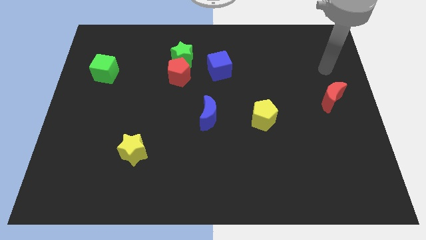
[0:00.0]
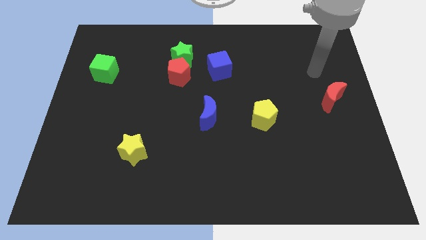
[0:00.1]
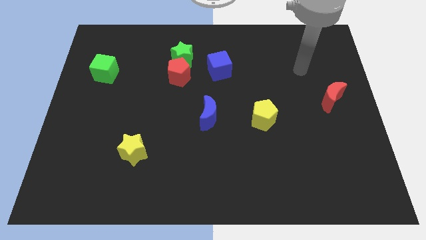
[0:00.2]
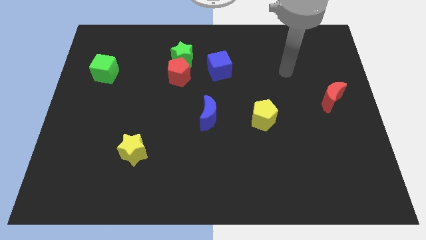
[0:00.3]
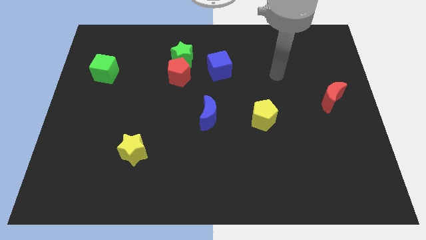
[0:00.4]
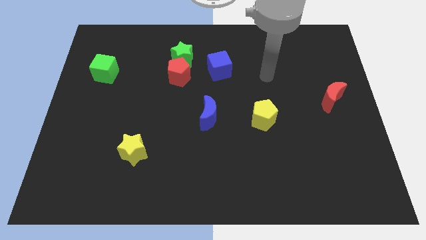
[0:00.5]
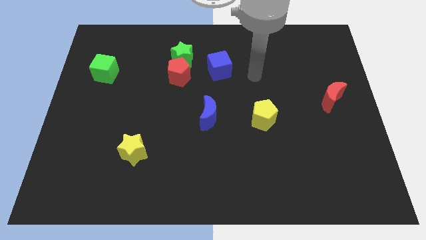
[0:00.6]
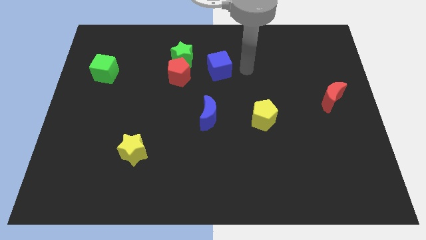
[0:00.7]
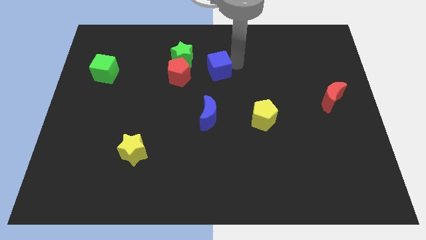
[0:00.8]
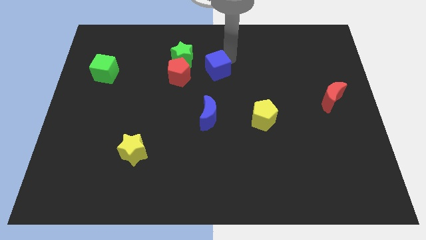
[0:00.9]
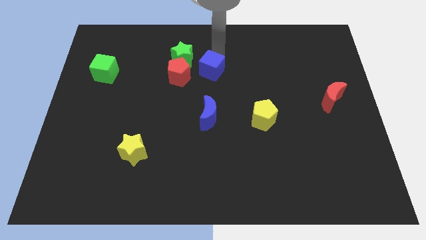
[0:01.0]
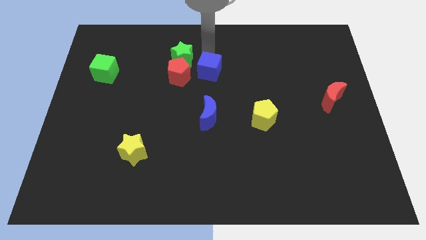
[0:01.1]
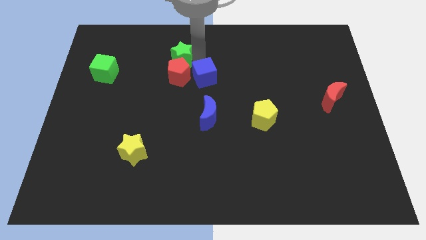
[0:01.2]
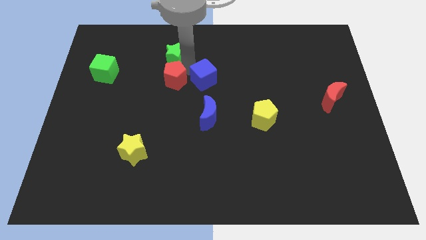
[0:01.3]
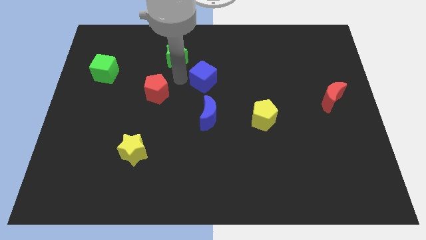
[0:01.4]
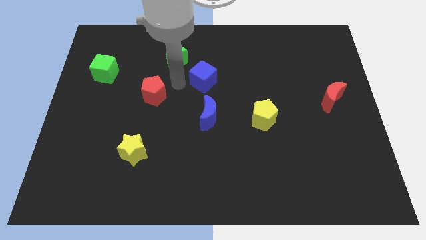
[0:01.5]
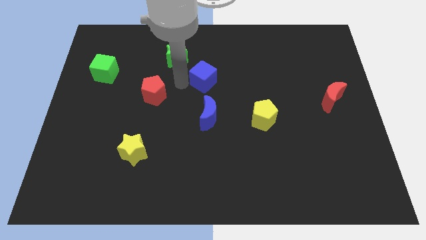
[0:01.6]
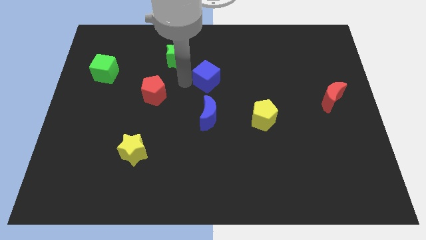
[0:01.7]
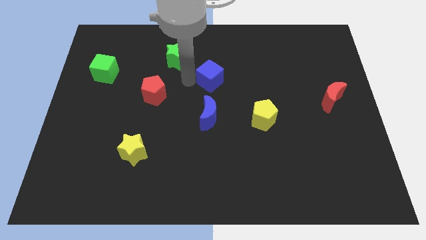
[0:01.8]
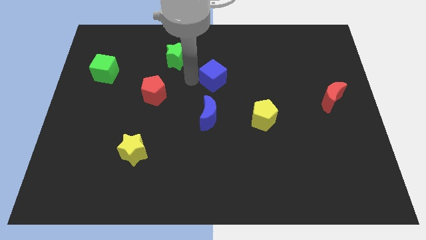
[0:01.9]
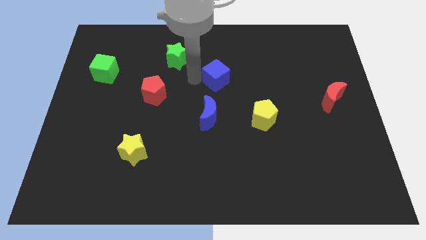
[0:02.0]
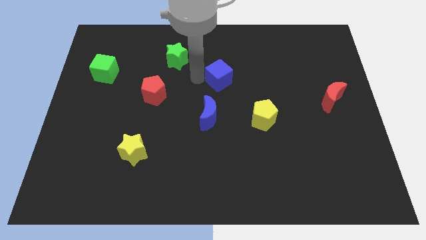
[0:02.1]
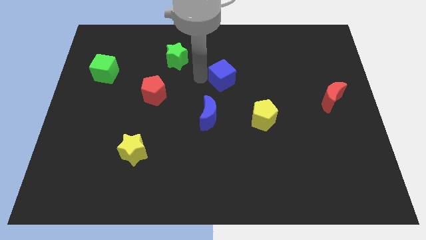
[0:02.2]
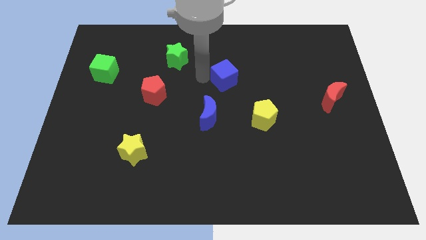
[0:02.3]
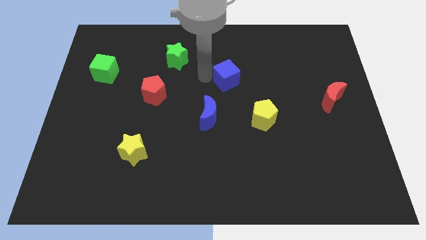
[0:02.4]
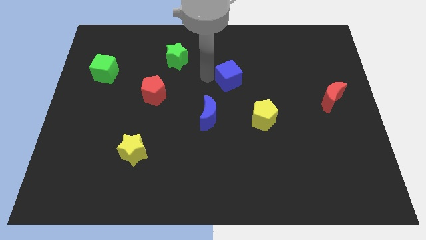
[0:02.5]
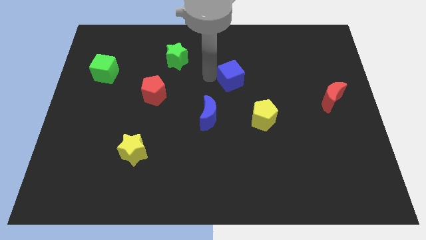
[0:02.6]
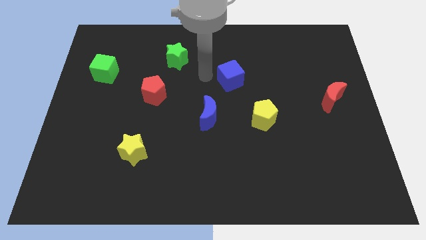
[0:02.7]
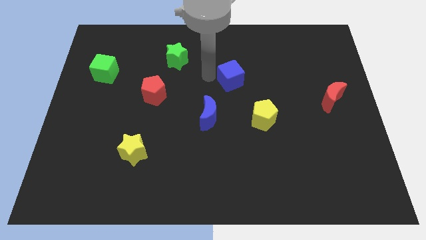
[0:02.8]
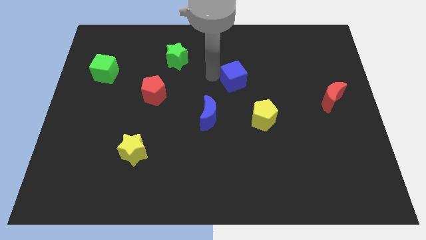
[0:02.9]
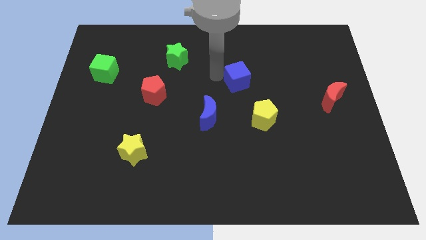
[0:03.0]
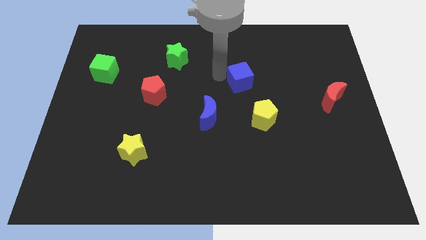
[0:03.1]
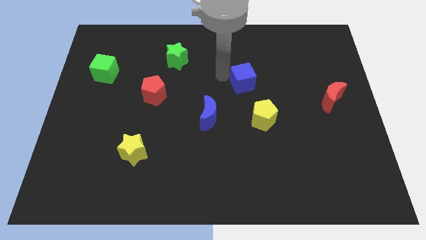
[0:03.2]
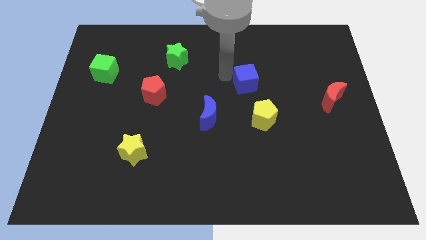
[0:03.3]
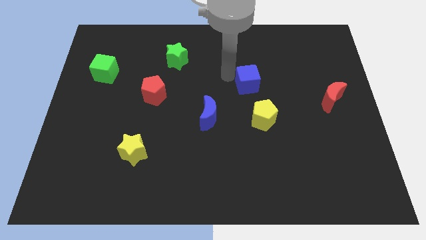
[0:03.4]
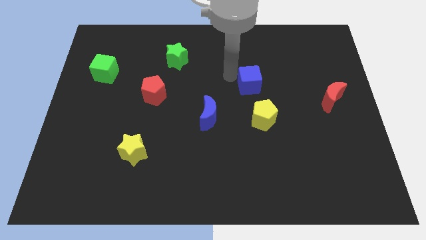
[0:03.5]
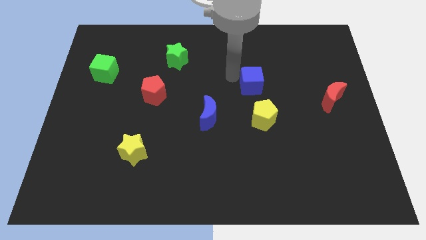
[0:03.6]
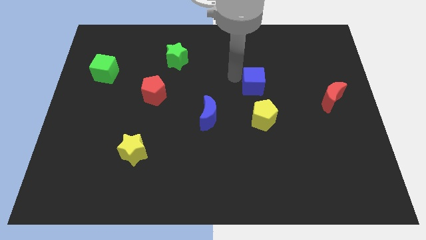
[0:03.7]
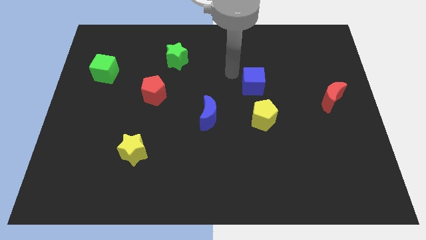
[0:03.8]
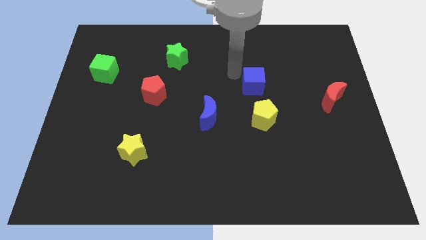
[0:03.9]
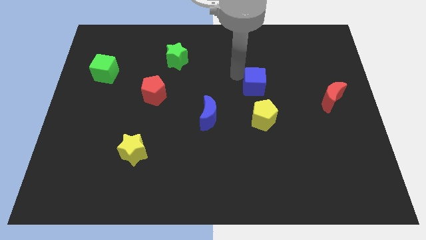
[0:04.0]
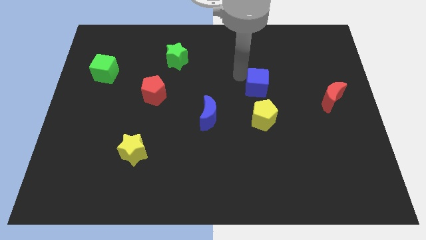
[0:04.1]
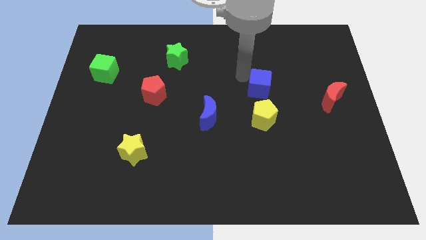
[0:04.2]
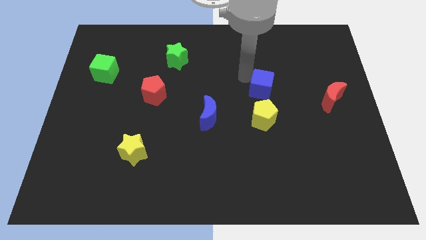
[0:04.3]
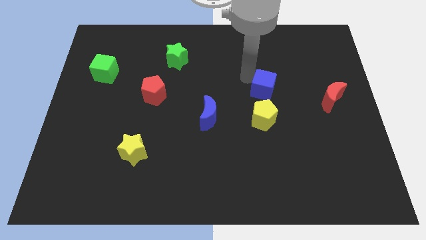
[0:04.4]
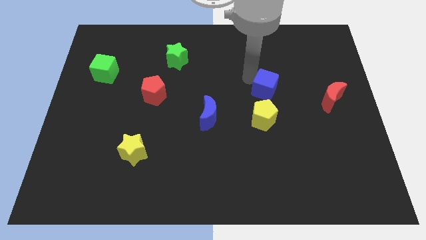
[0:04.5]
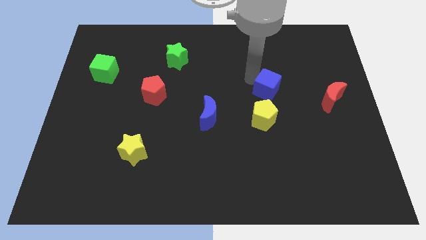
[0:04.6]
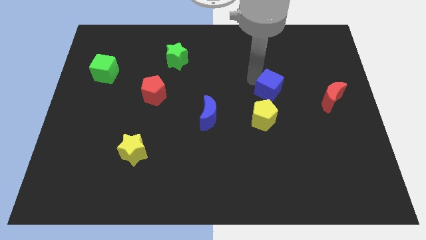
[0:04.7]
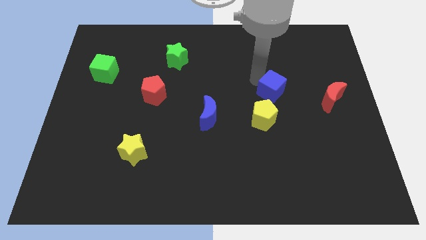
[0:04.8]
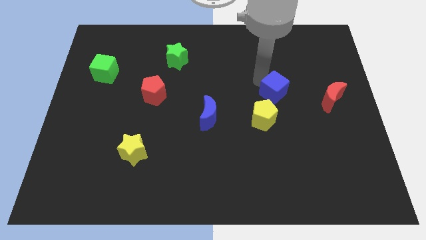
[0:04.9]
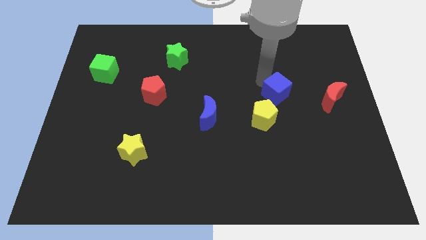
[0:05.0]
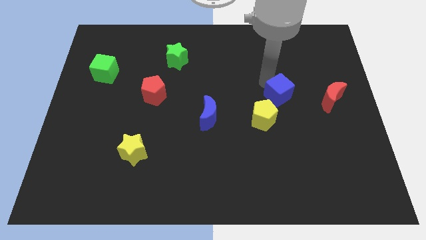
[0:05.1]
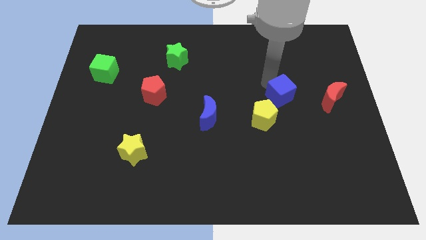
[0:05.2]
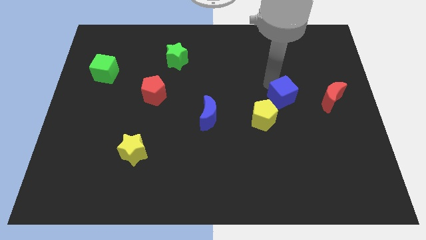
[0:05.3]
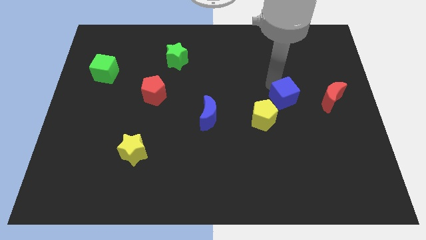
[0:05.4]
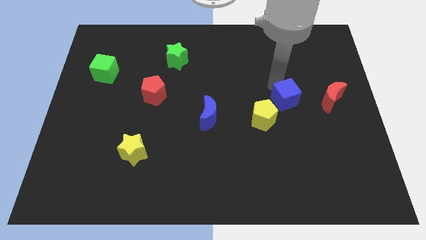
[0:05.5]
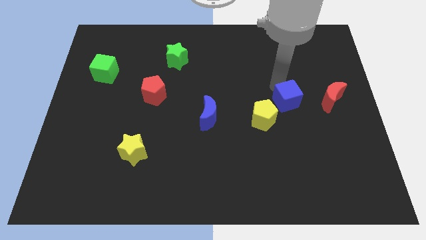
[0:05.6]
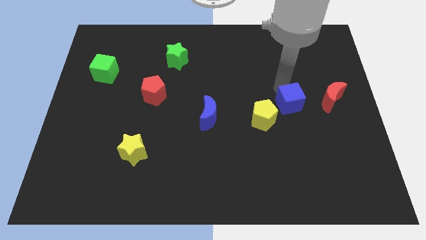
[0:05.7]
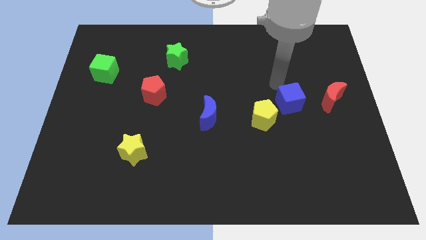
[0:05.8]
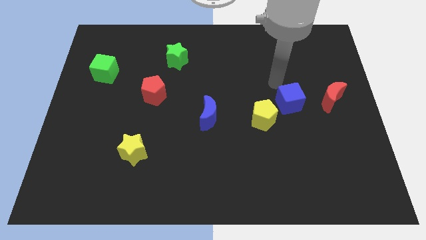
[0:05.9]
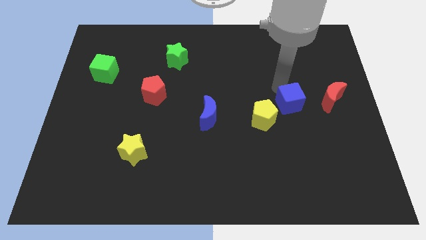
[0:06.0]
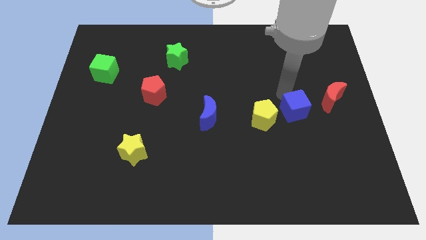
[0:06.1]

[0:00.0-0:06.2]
push the blue cube downwards and to the right

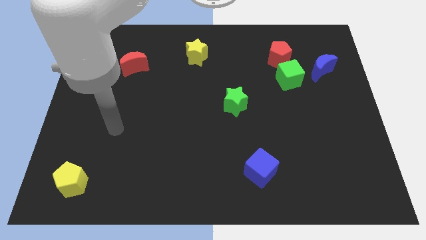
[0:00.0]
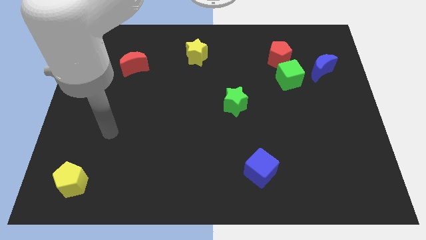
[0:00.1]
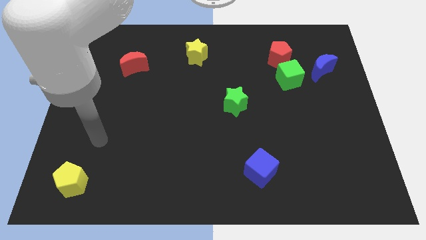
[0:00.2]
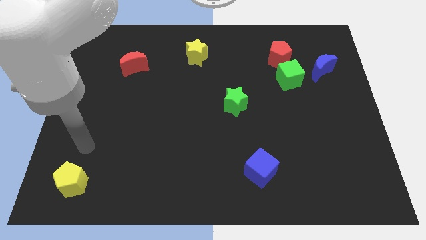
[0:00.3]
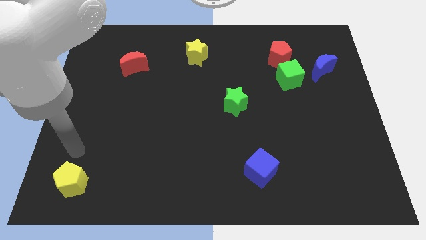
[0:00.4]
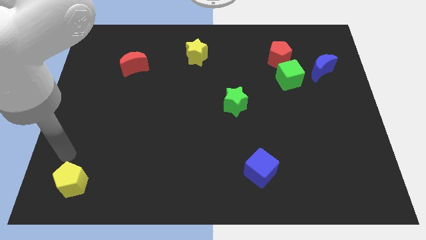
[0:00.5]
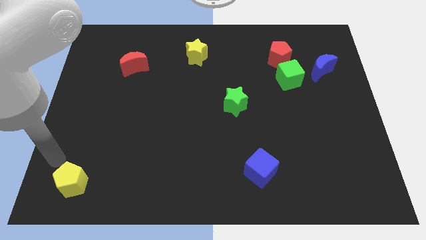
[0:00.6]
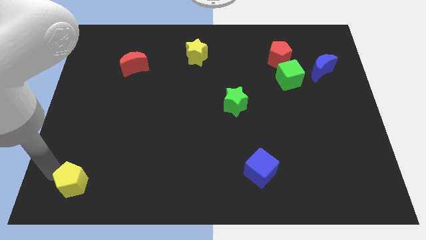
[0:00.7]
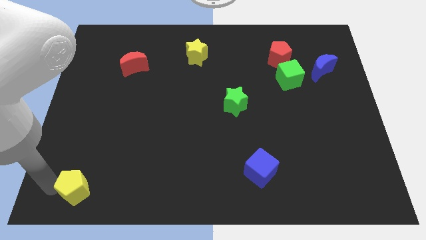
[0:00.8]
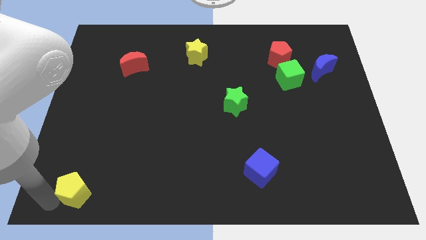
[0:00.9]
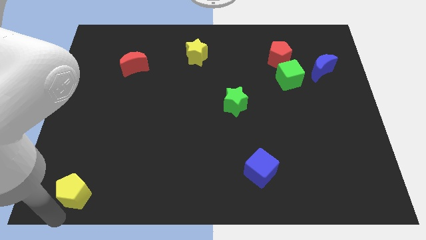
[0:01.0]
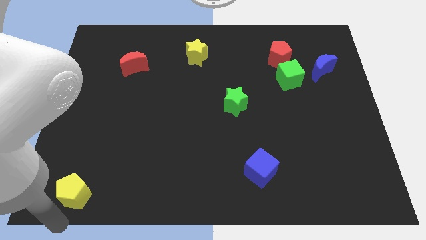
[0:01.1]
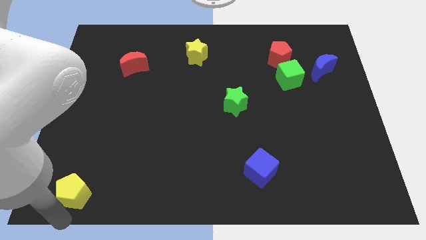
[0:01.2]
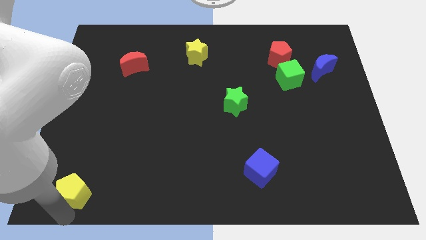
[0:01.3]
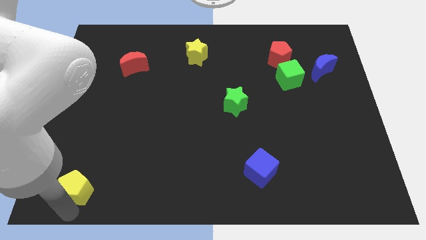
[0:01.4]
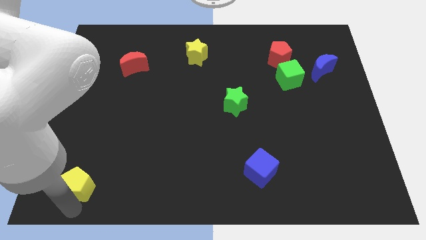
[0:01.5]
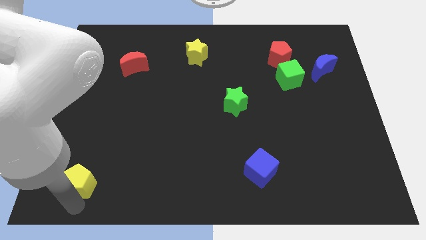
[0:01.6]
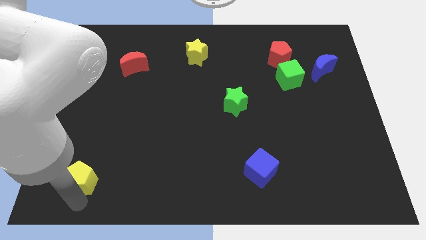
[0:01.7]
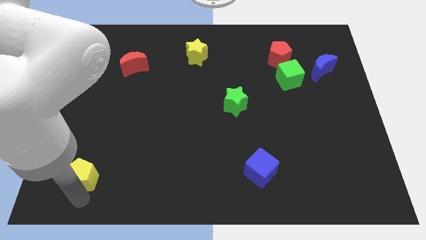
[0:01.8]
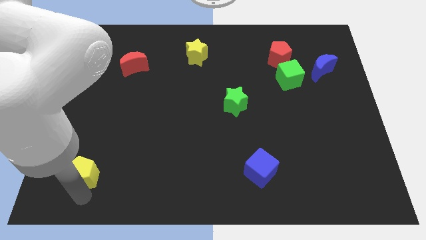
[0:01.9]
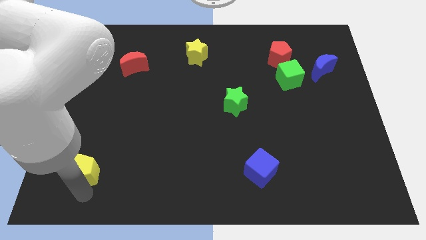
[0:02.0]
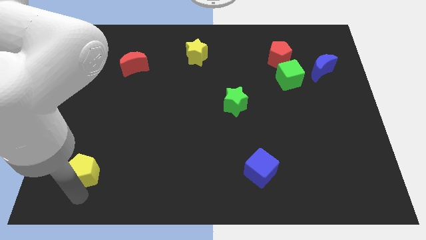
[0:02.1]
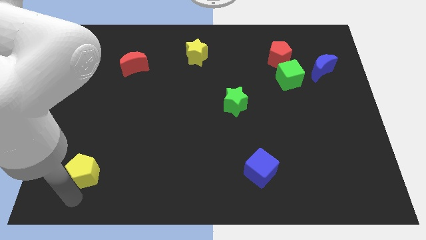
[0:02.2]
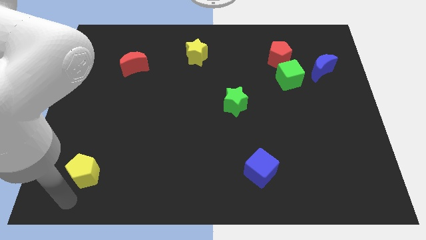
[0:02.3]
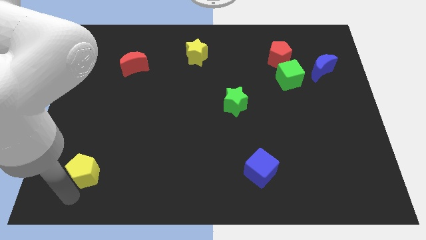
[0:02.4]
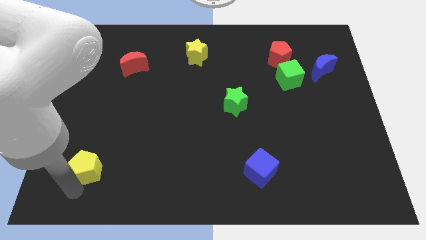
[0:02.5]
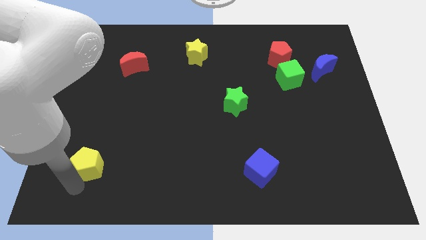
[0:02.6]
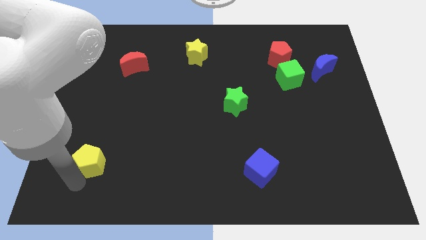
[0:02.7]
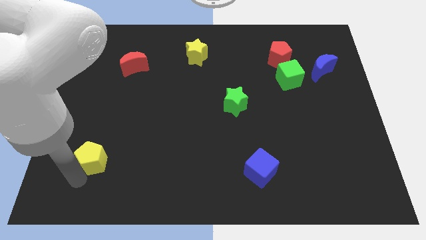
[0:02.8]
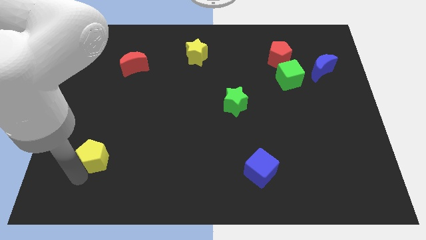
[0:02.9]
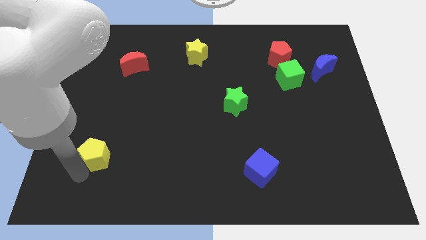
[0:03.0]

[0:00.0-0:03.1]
slightly slide the yellow pentagon up and right
